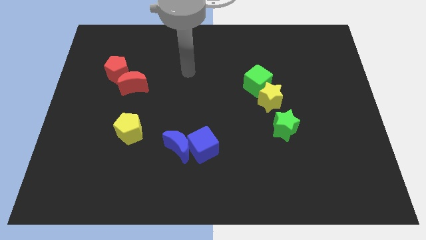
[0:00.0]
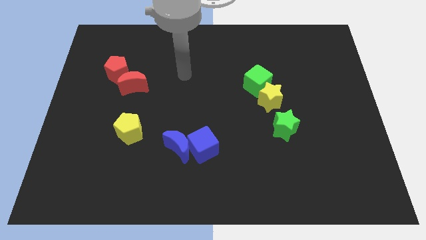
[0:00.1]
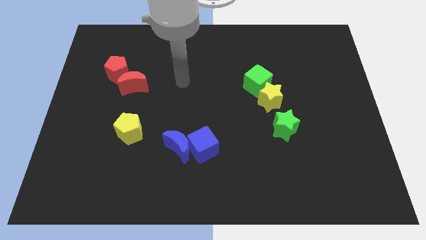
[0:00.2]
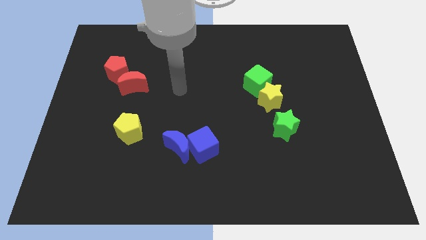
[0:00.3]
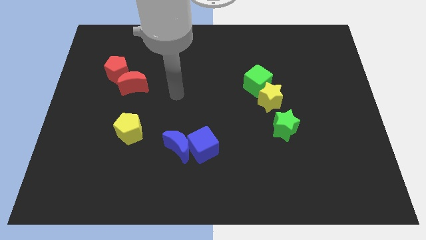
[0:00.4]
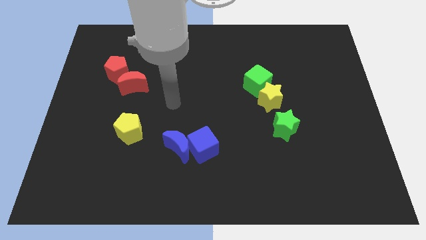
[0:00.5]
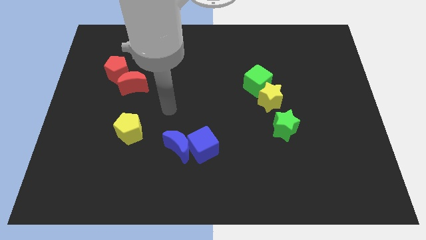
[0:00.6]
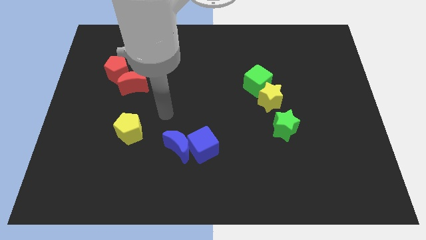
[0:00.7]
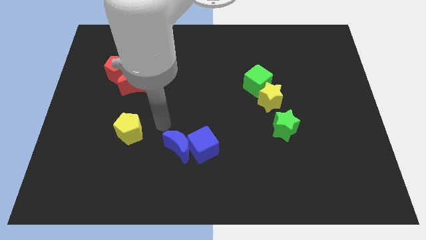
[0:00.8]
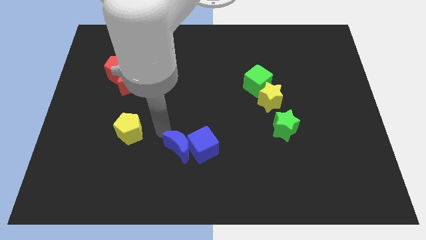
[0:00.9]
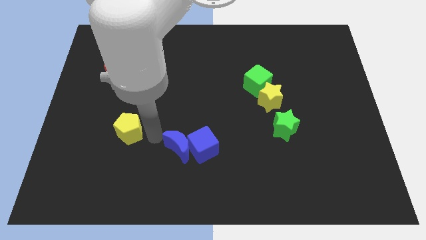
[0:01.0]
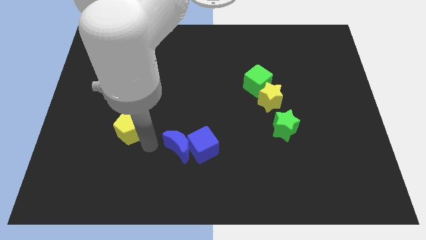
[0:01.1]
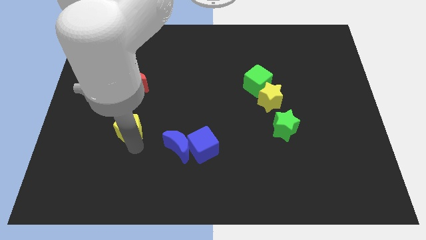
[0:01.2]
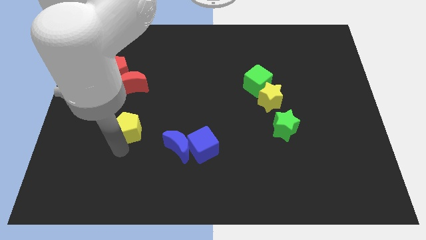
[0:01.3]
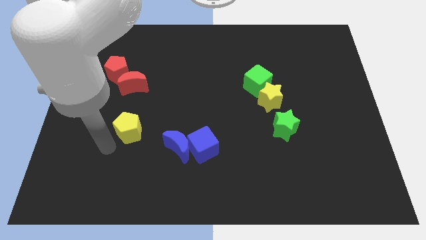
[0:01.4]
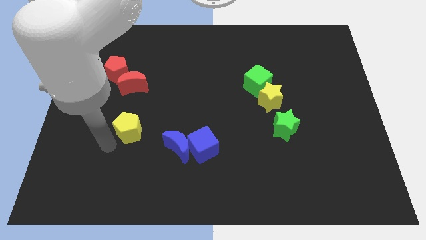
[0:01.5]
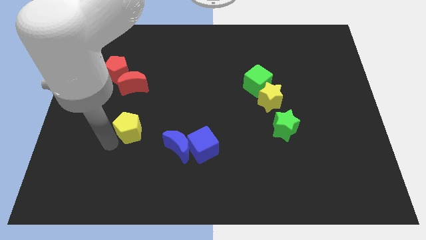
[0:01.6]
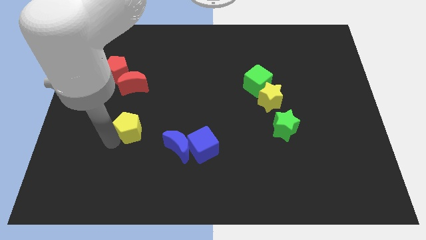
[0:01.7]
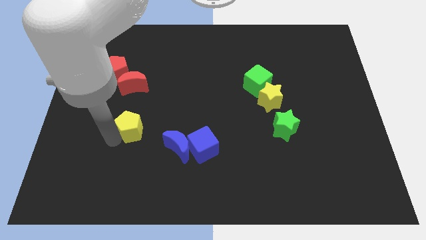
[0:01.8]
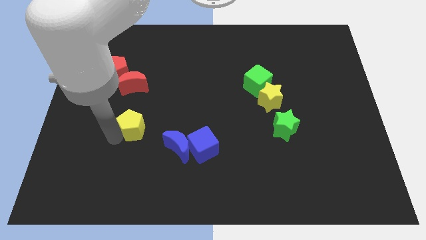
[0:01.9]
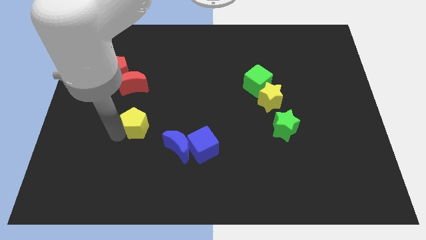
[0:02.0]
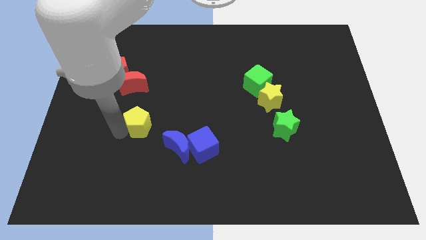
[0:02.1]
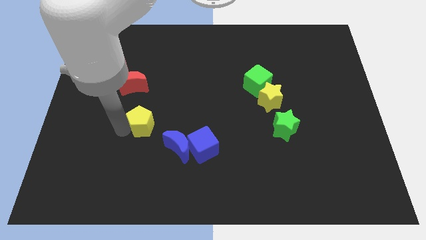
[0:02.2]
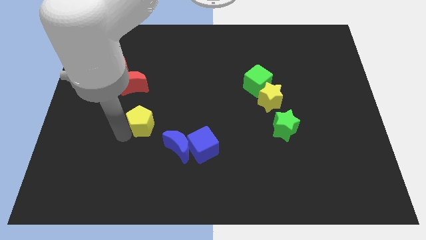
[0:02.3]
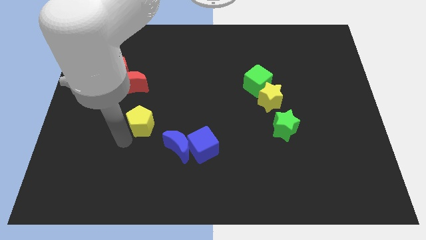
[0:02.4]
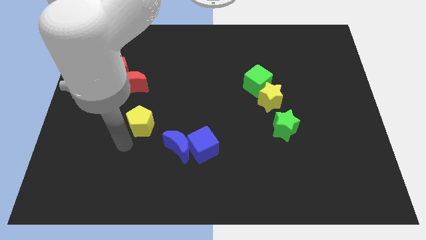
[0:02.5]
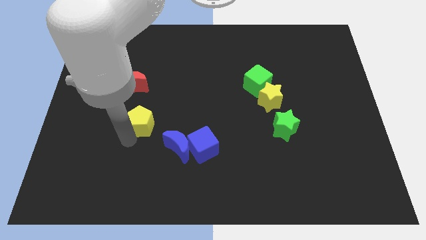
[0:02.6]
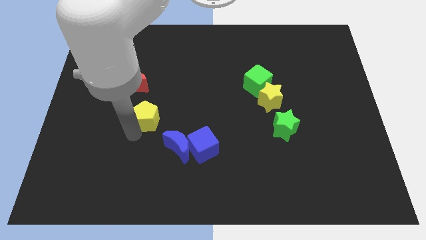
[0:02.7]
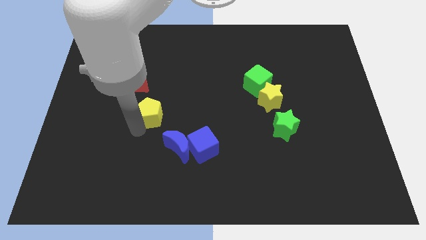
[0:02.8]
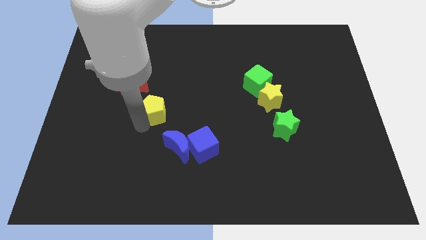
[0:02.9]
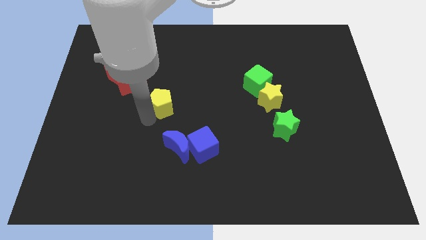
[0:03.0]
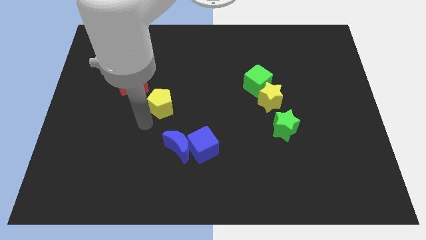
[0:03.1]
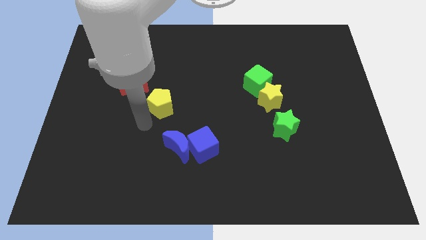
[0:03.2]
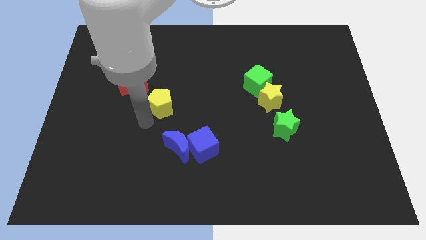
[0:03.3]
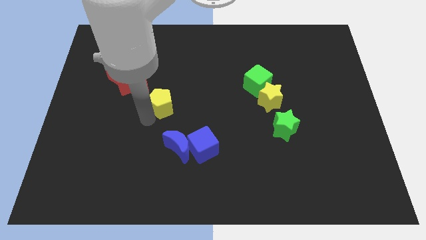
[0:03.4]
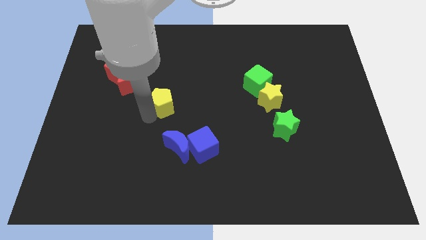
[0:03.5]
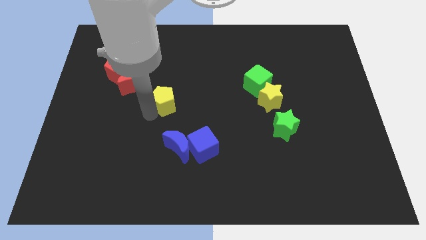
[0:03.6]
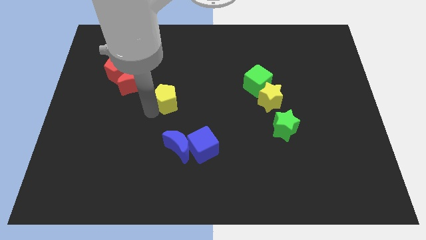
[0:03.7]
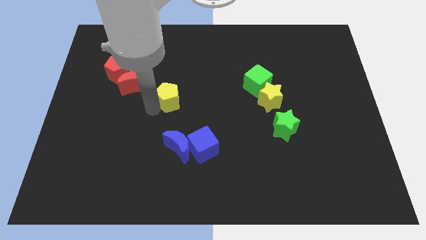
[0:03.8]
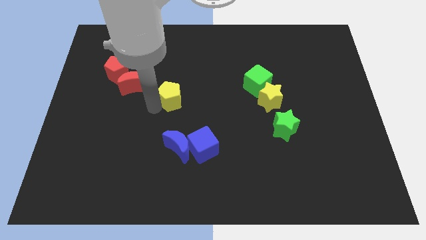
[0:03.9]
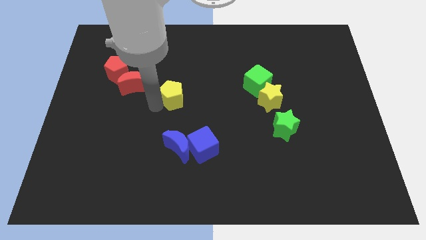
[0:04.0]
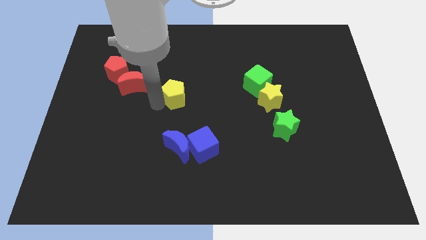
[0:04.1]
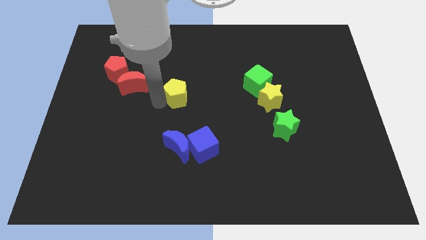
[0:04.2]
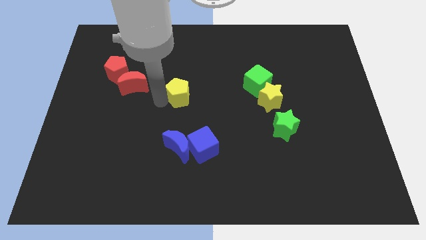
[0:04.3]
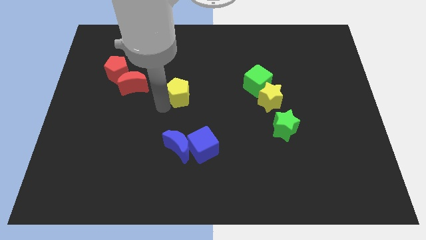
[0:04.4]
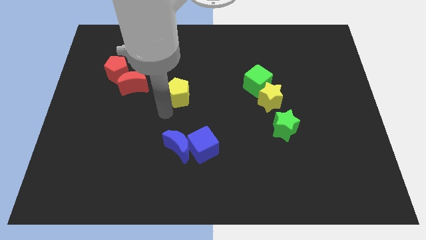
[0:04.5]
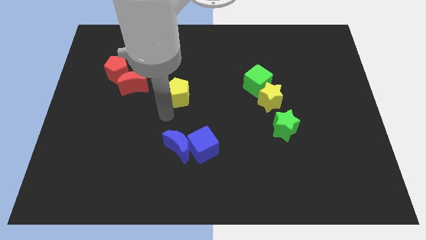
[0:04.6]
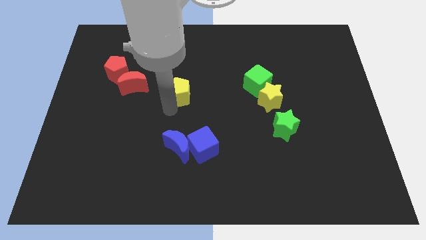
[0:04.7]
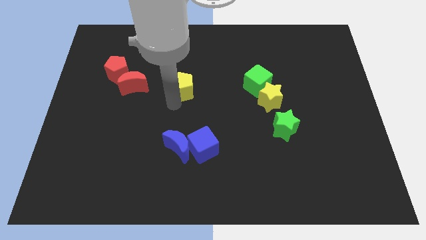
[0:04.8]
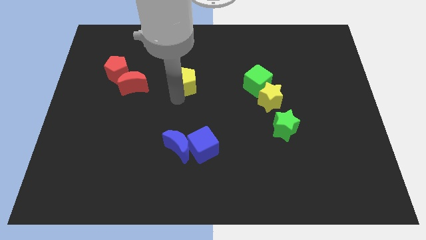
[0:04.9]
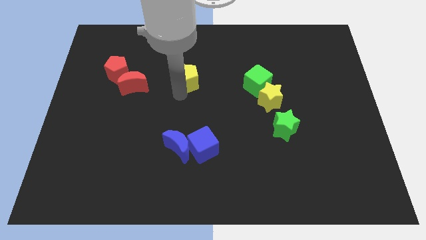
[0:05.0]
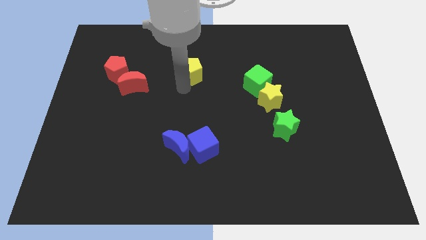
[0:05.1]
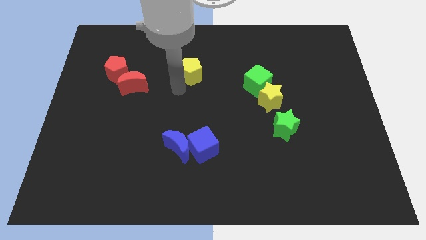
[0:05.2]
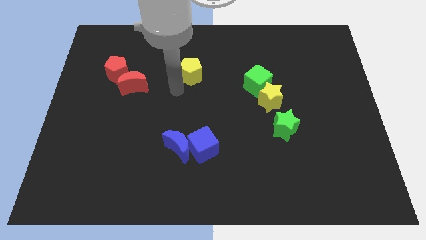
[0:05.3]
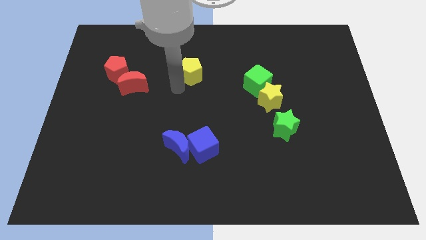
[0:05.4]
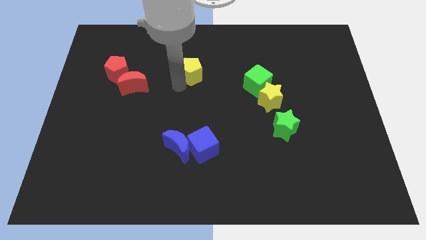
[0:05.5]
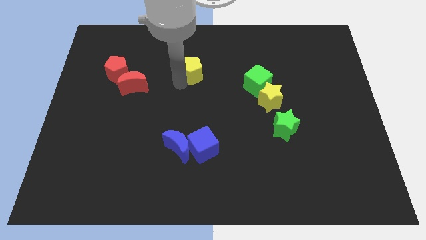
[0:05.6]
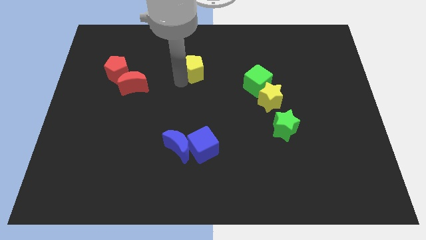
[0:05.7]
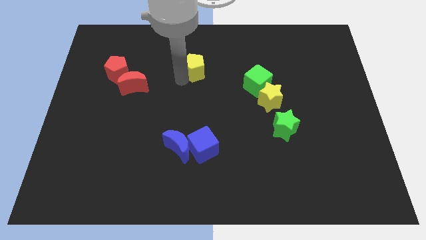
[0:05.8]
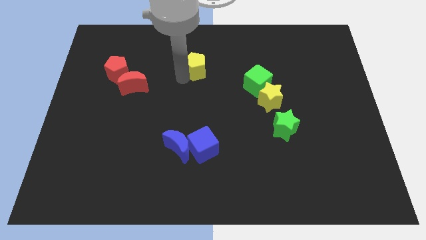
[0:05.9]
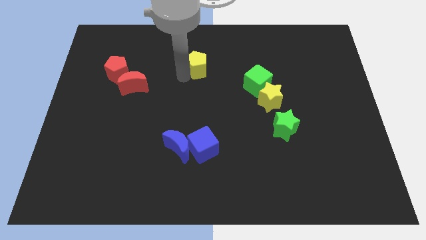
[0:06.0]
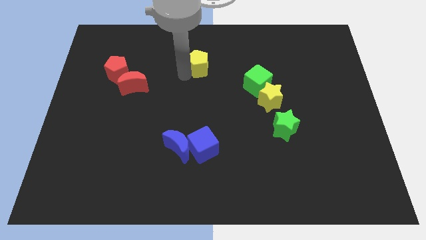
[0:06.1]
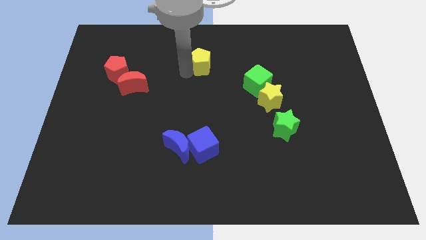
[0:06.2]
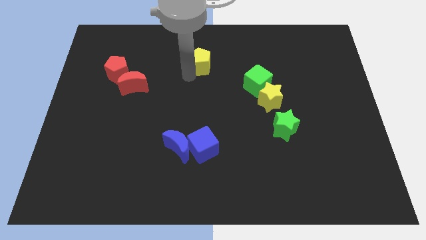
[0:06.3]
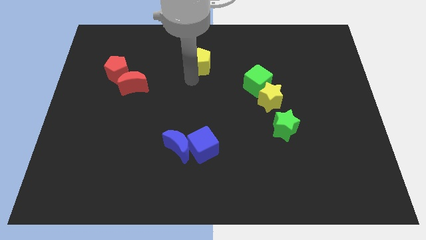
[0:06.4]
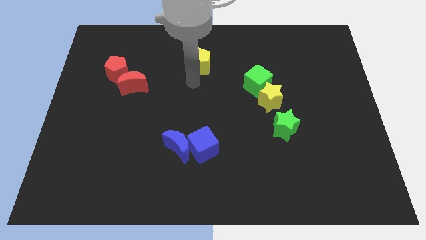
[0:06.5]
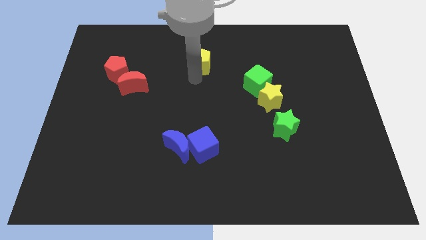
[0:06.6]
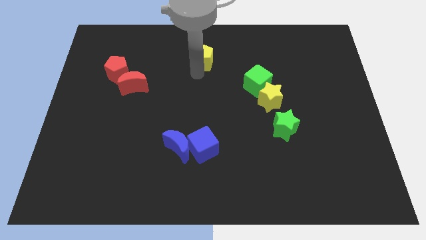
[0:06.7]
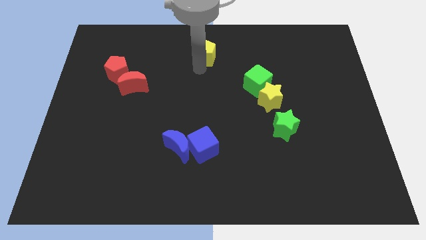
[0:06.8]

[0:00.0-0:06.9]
slide the yellow pentagon to the top side
